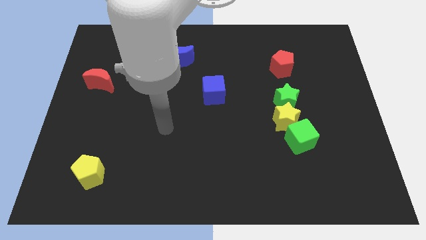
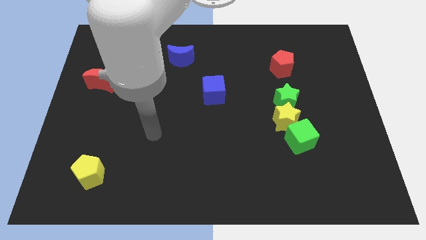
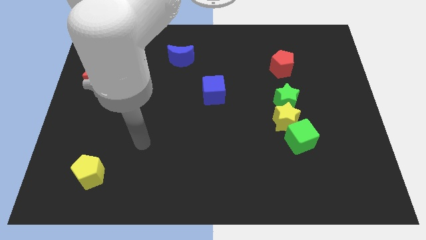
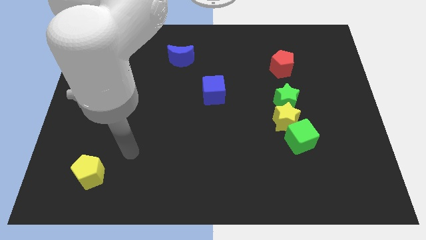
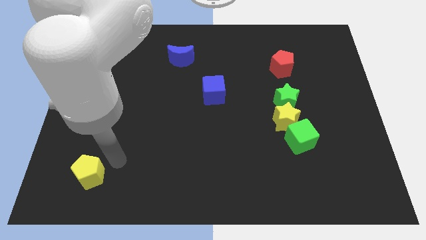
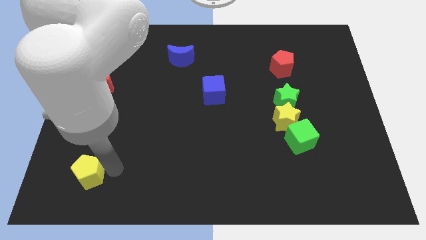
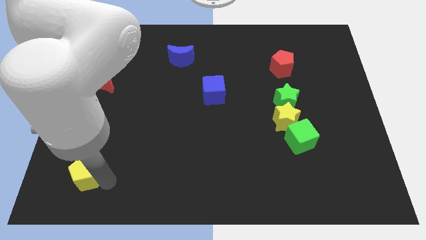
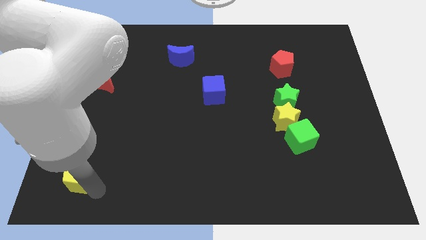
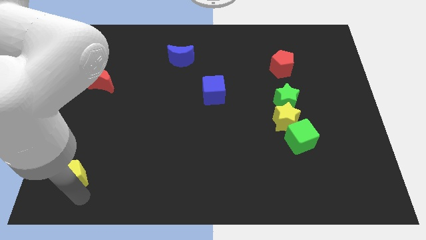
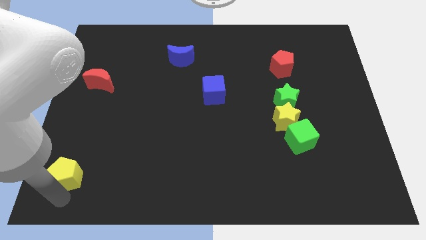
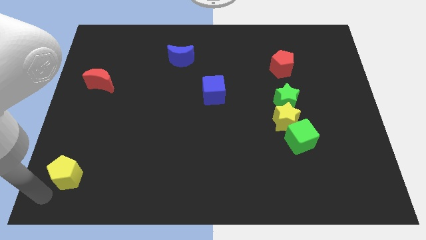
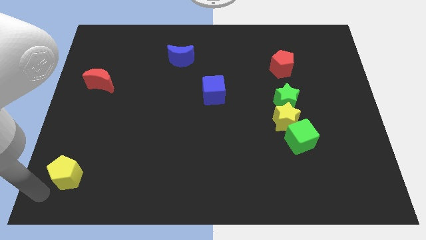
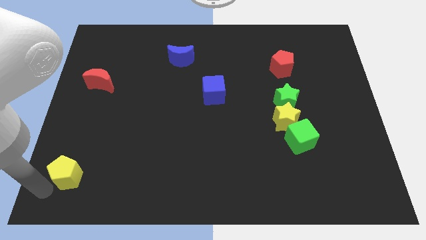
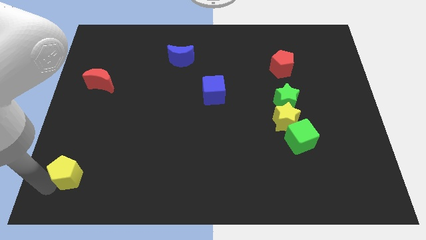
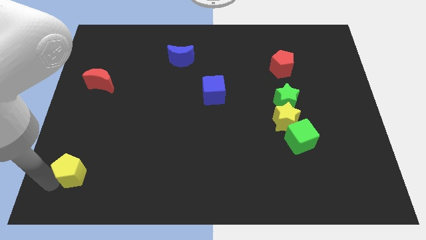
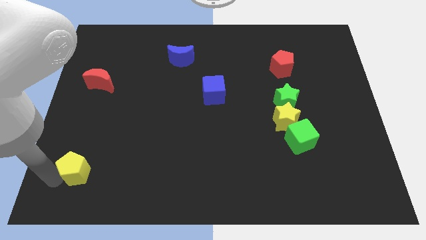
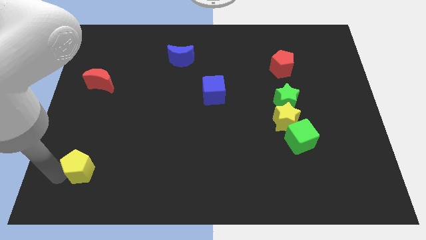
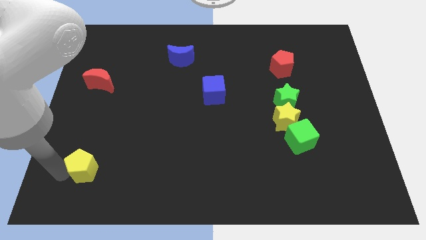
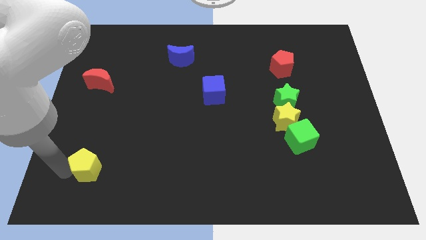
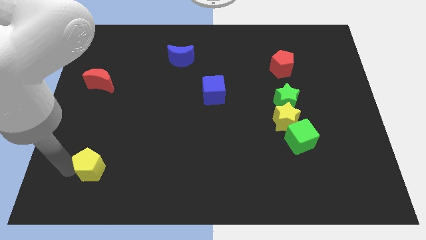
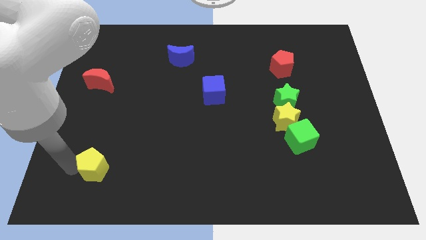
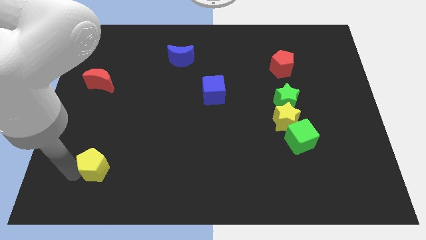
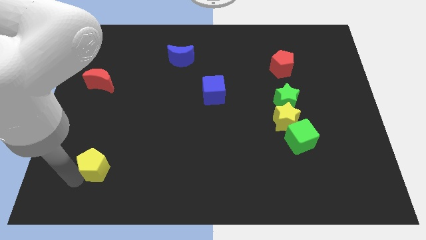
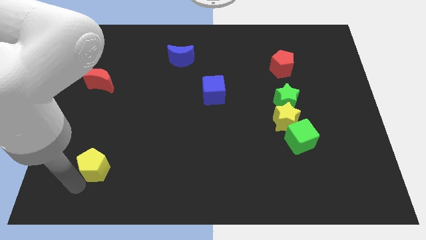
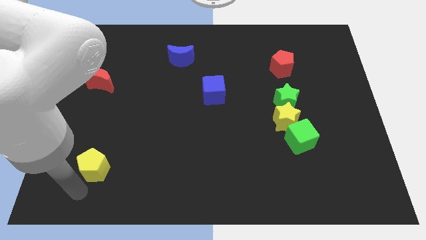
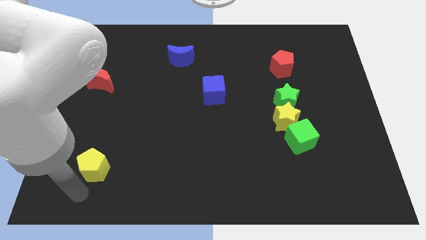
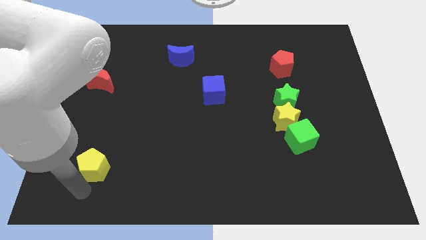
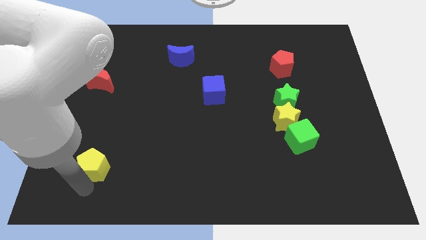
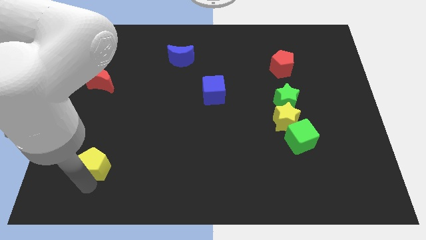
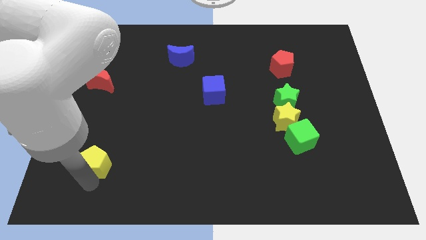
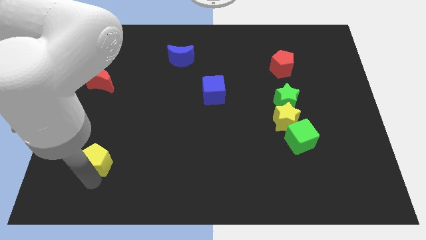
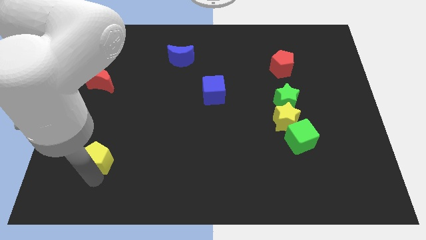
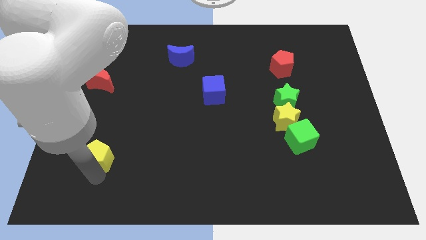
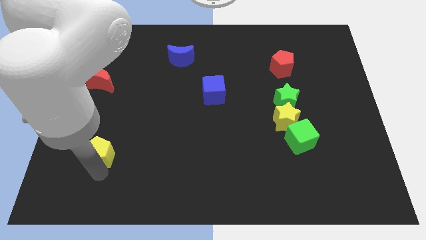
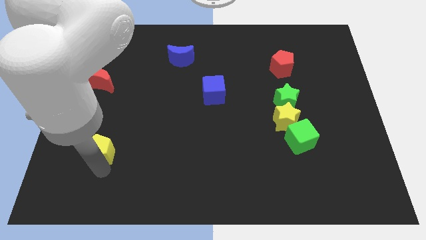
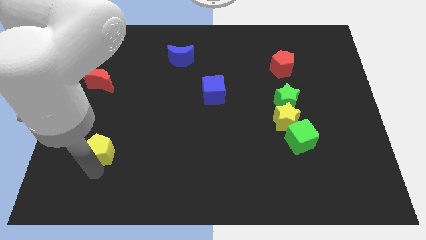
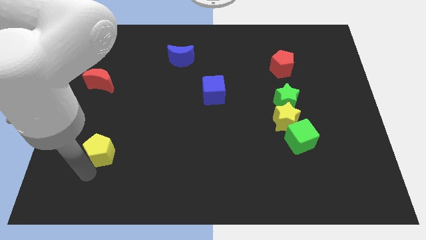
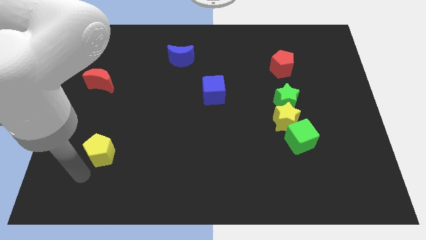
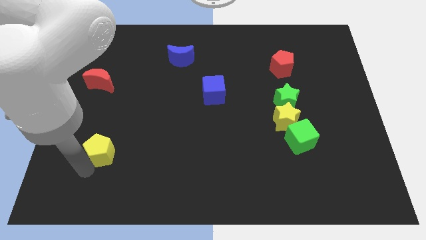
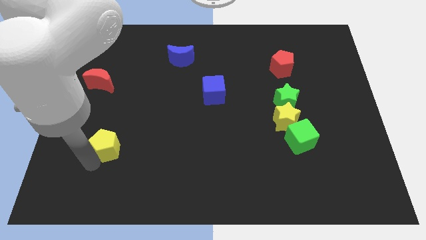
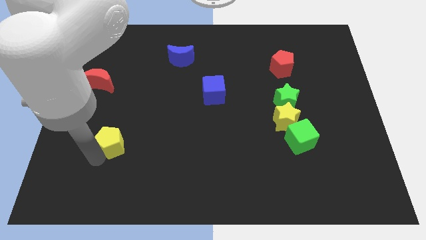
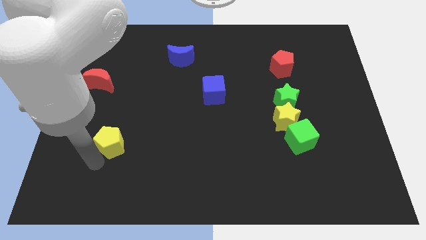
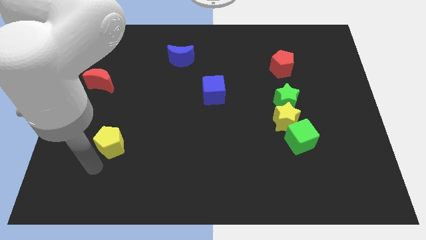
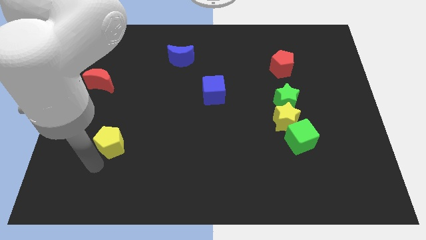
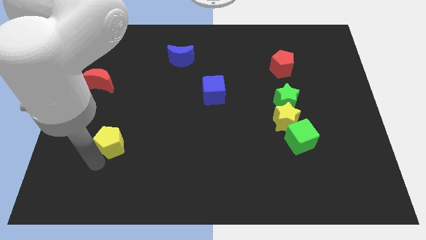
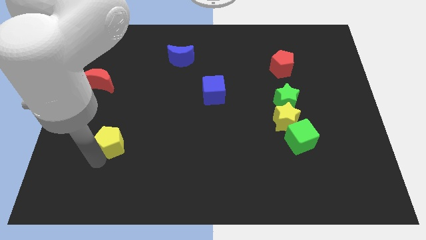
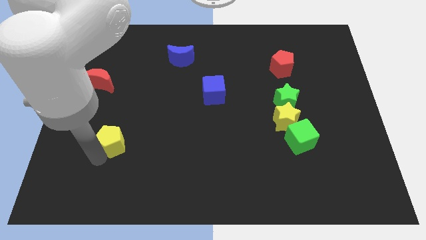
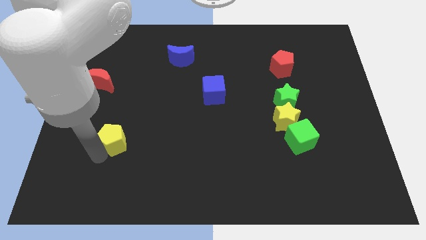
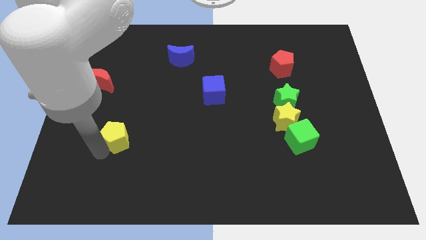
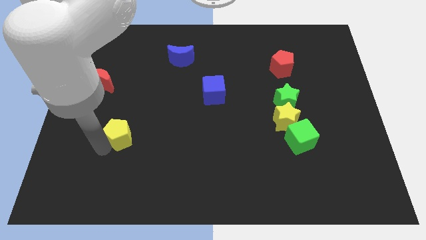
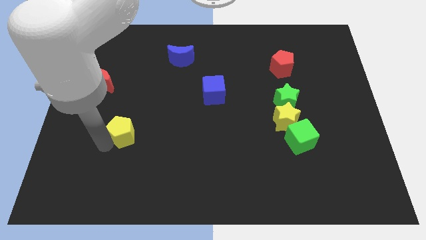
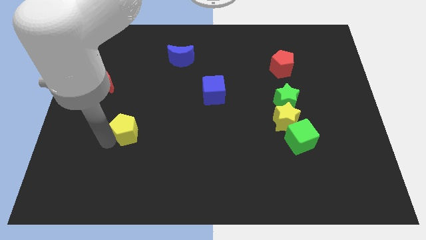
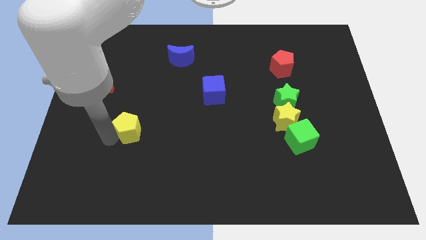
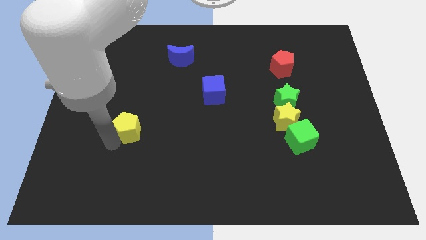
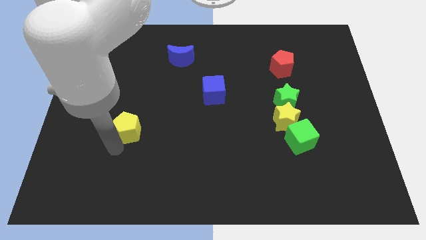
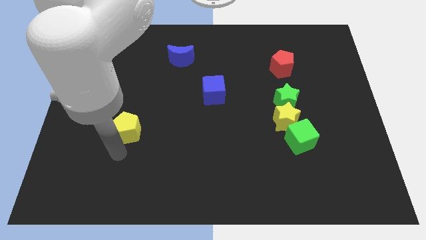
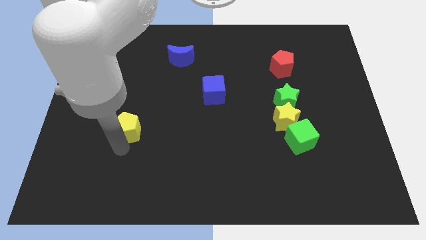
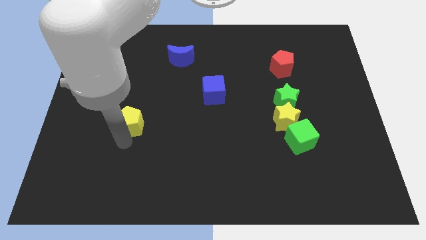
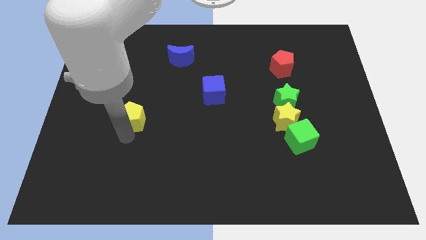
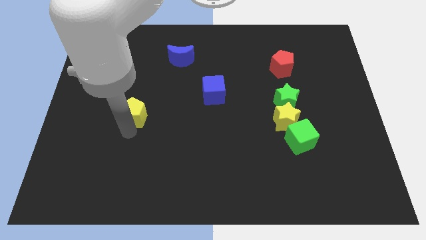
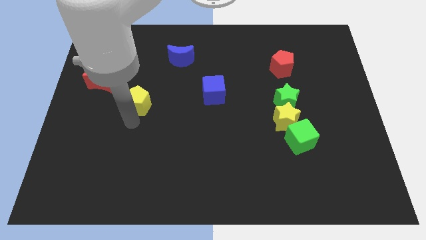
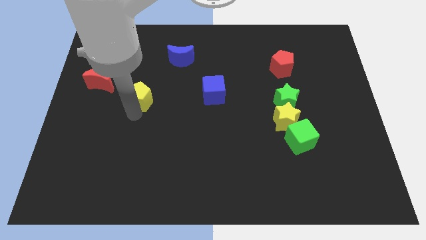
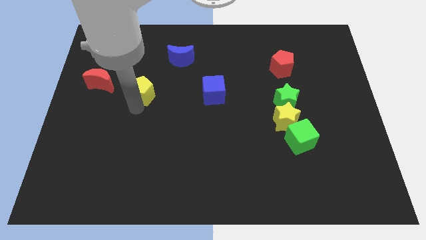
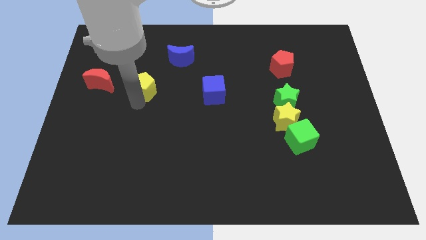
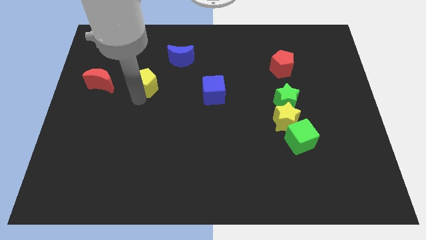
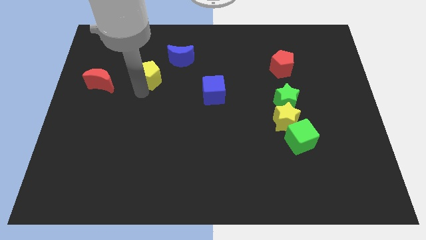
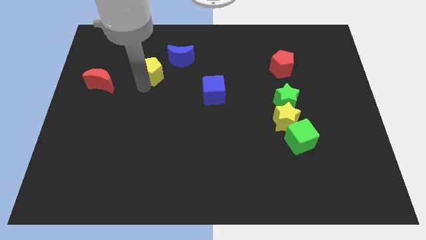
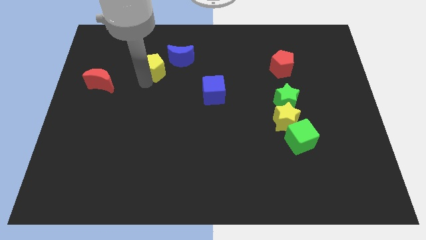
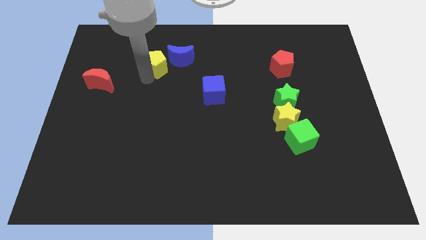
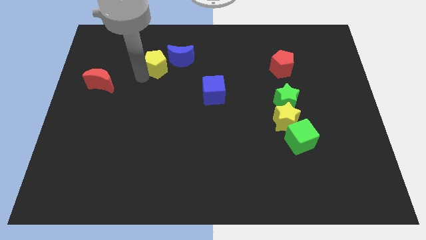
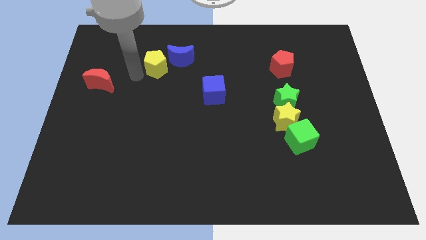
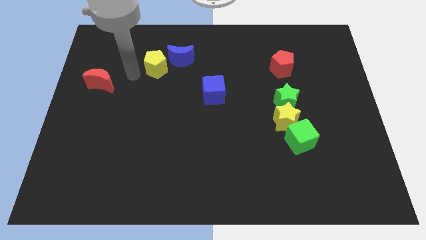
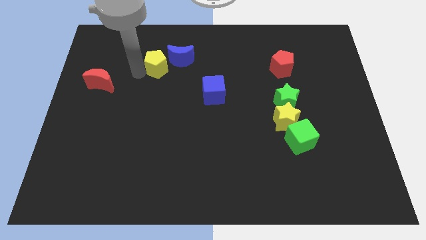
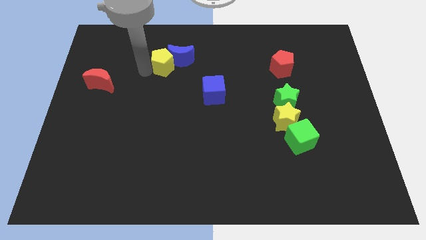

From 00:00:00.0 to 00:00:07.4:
slide the yellow pentagon towards the blue moon
